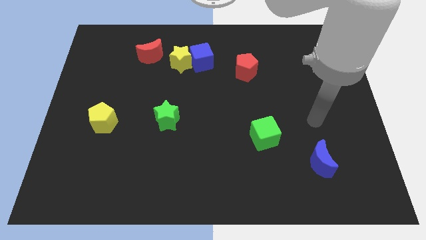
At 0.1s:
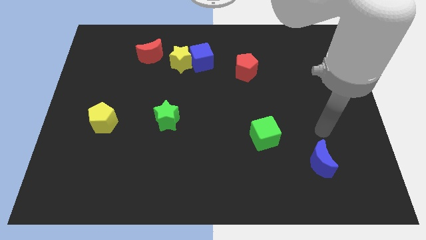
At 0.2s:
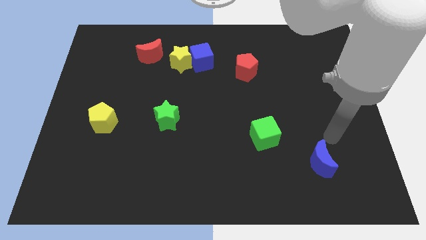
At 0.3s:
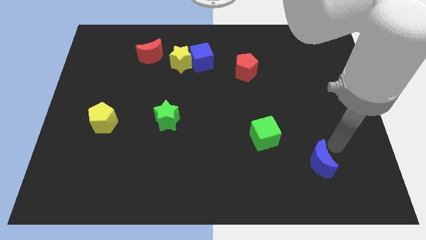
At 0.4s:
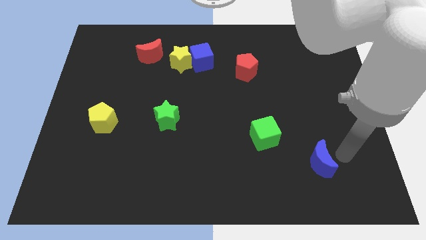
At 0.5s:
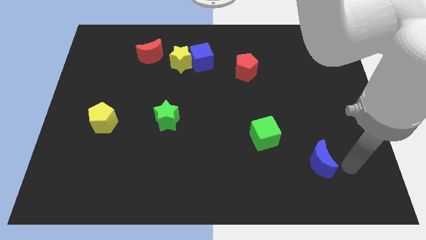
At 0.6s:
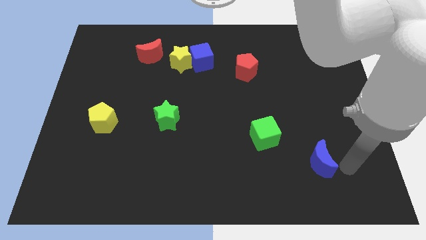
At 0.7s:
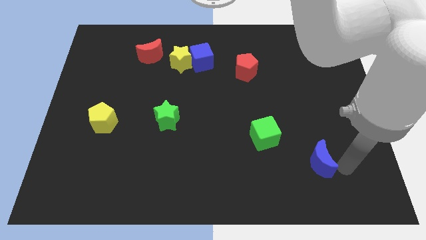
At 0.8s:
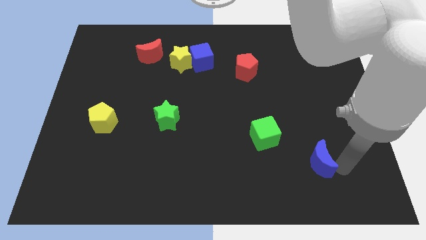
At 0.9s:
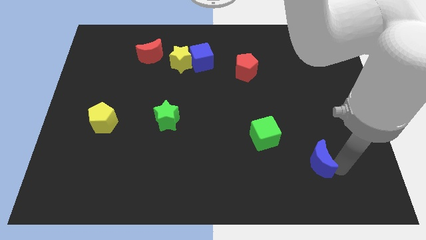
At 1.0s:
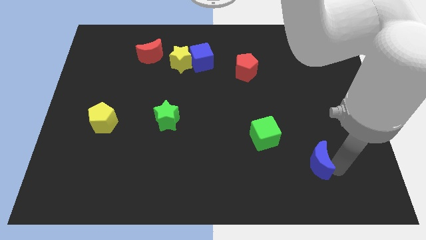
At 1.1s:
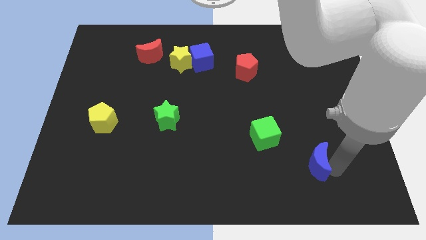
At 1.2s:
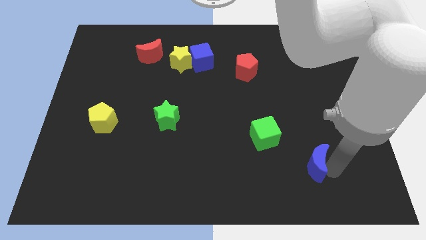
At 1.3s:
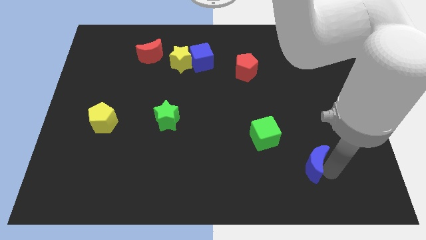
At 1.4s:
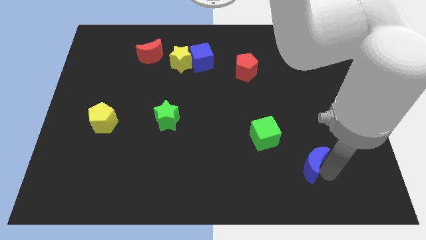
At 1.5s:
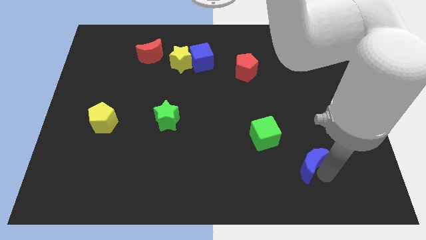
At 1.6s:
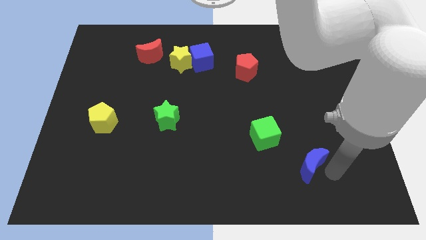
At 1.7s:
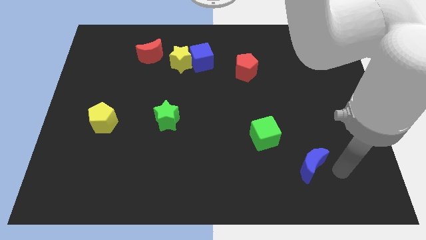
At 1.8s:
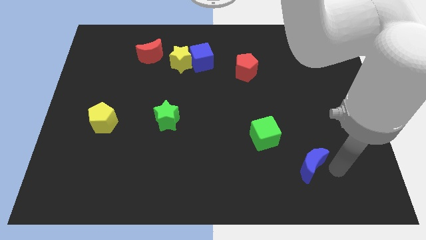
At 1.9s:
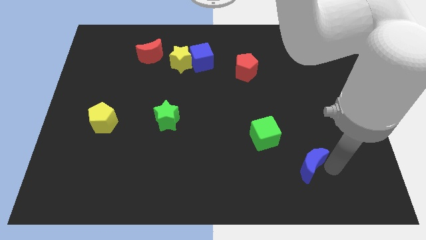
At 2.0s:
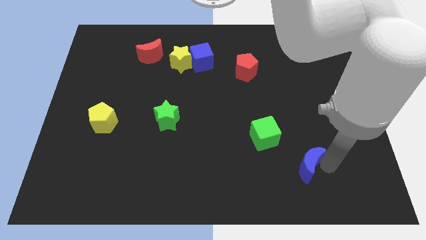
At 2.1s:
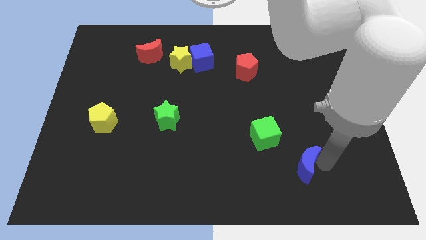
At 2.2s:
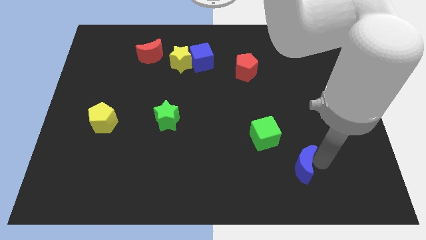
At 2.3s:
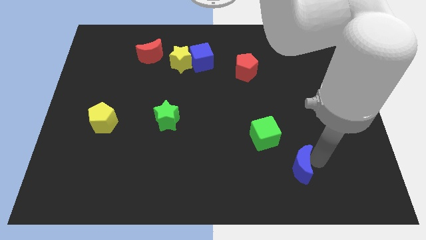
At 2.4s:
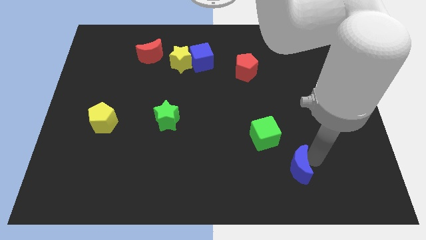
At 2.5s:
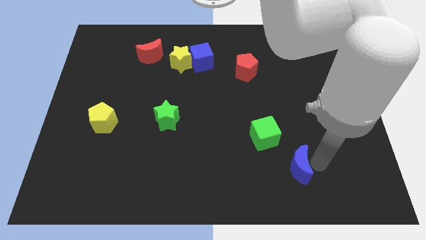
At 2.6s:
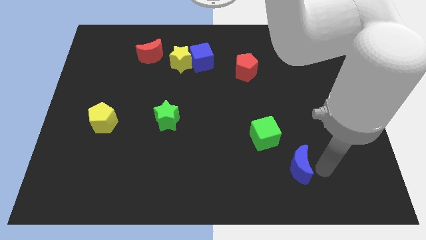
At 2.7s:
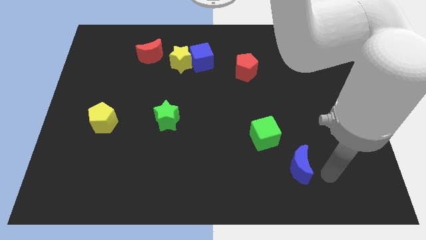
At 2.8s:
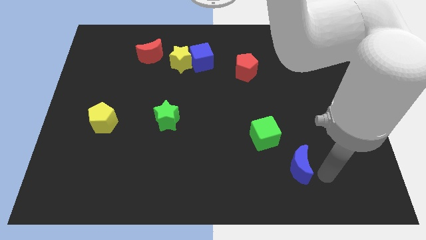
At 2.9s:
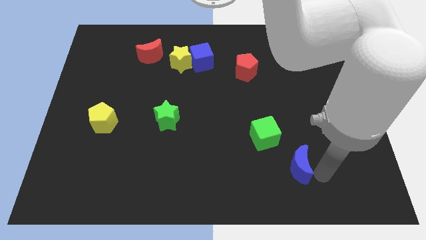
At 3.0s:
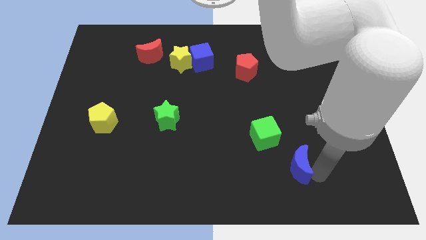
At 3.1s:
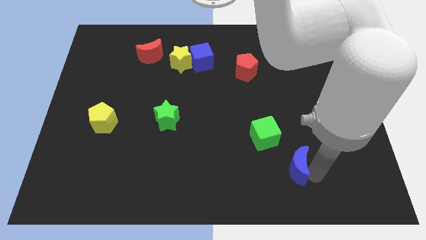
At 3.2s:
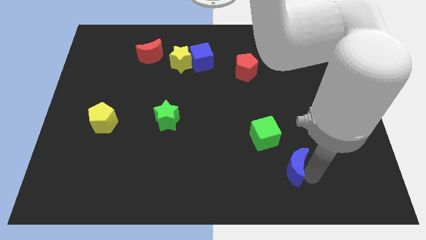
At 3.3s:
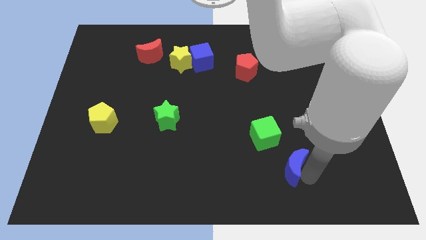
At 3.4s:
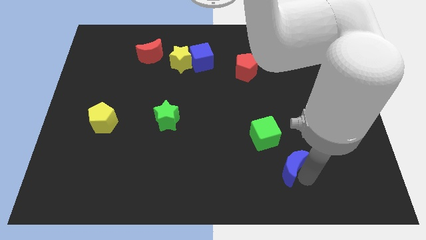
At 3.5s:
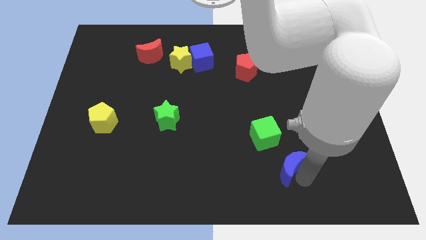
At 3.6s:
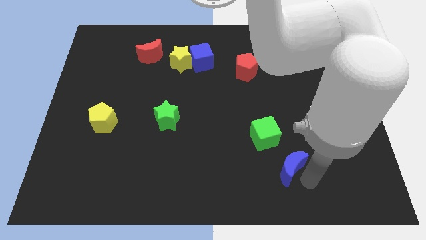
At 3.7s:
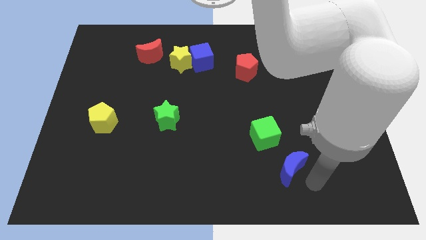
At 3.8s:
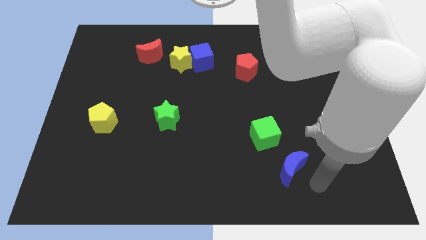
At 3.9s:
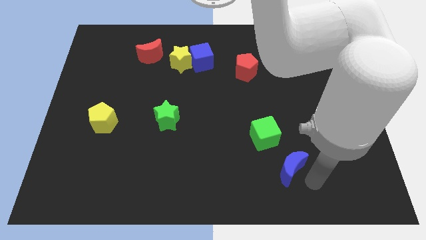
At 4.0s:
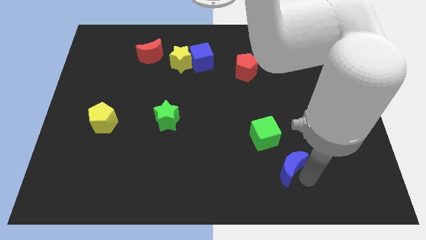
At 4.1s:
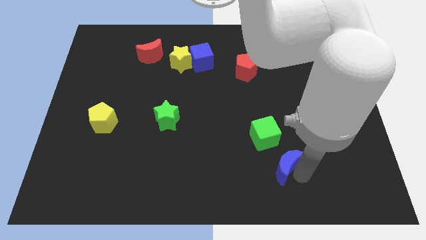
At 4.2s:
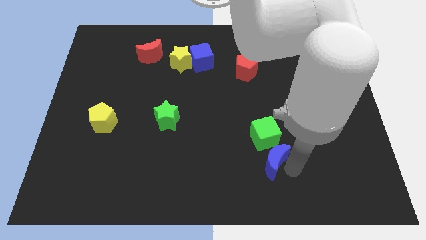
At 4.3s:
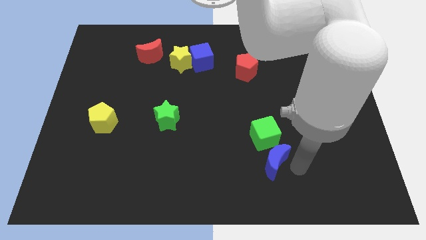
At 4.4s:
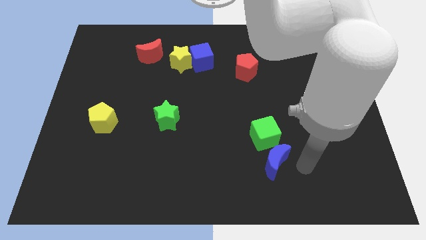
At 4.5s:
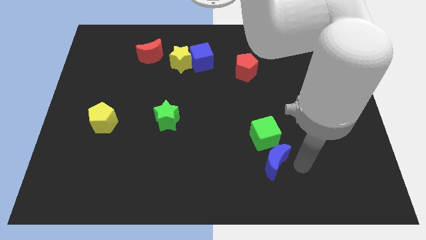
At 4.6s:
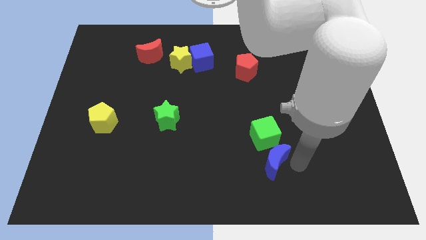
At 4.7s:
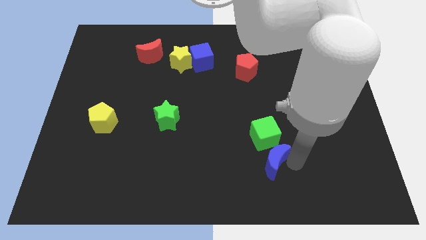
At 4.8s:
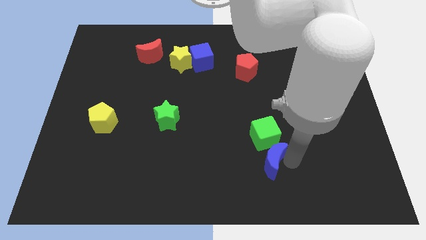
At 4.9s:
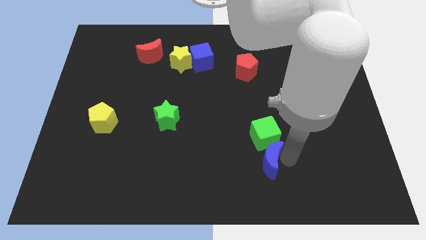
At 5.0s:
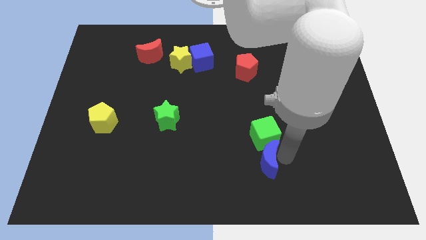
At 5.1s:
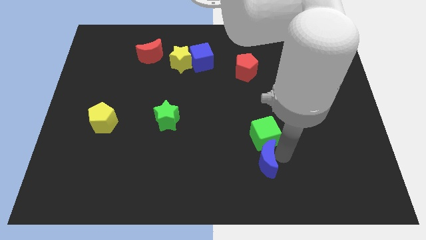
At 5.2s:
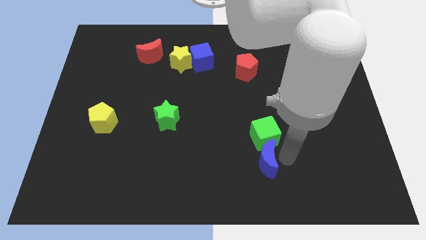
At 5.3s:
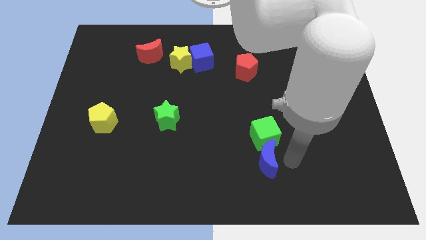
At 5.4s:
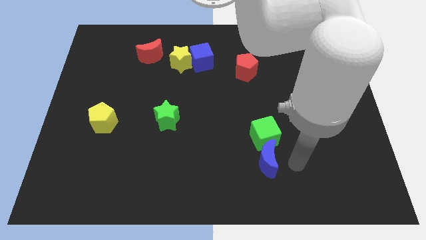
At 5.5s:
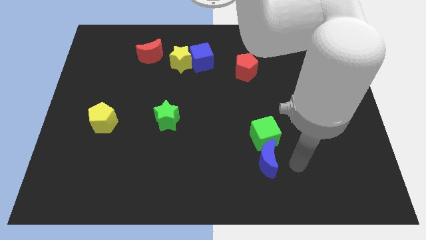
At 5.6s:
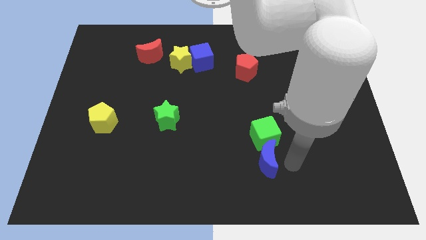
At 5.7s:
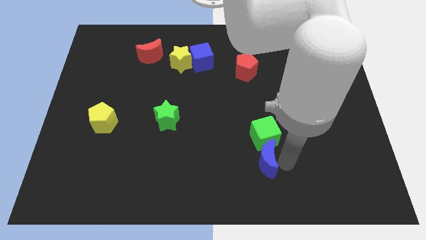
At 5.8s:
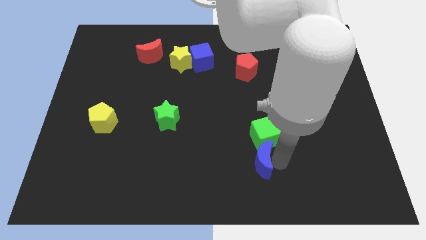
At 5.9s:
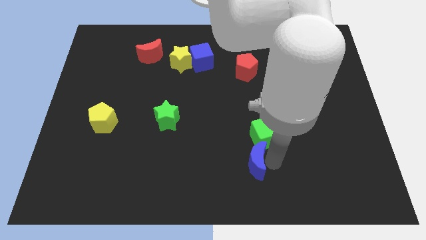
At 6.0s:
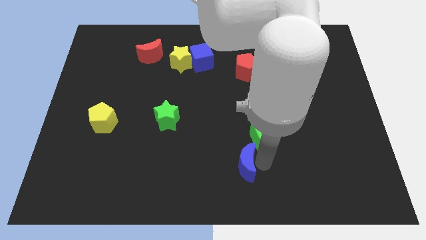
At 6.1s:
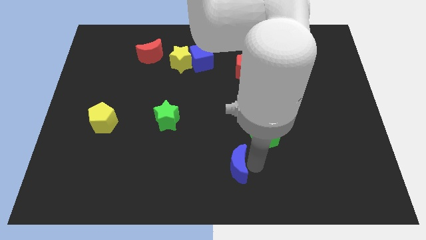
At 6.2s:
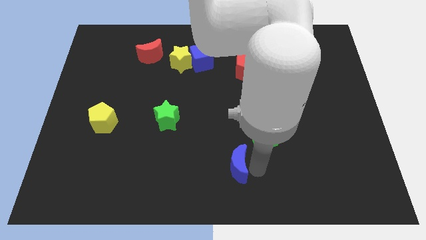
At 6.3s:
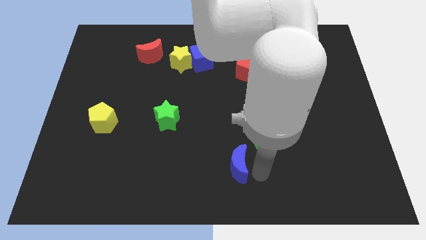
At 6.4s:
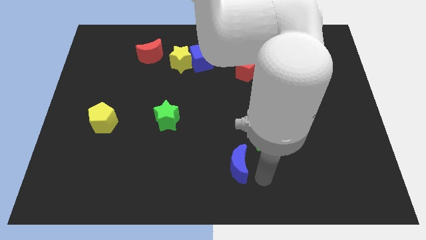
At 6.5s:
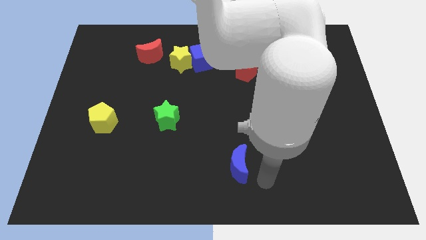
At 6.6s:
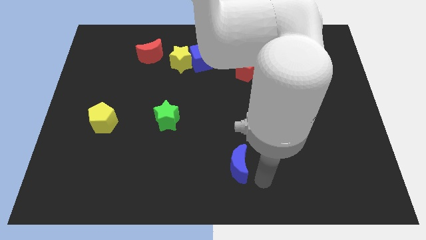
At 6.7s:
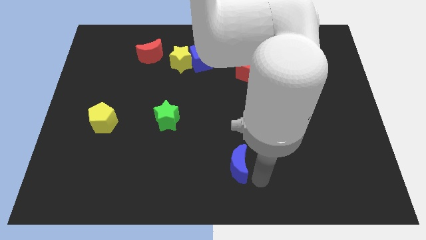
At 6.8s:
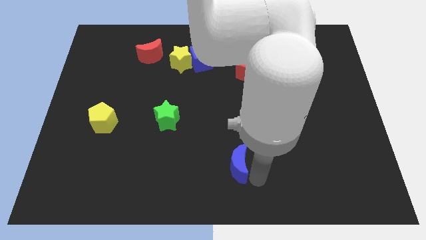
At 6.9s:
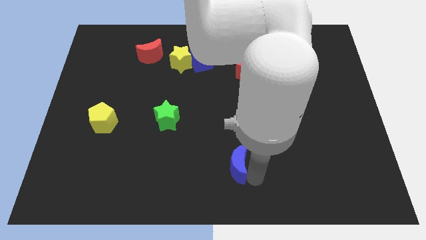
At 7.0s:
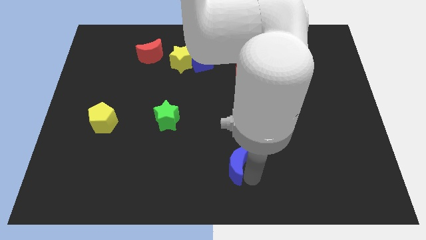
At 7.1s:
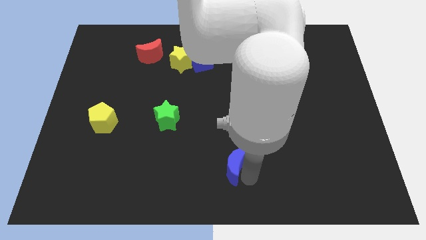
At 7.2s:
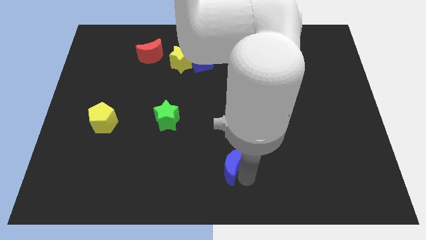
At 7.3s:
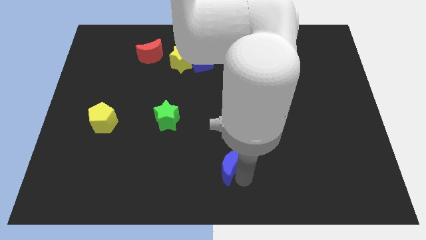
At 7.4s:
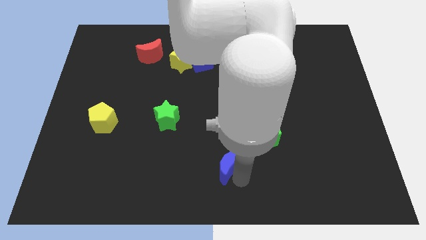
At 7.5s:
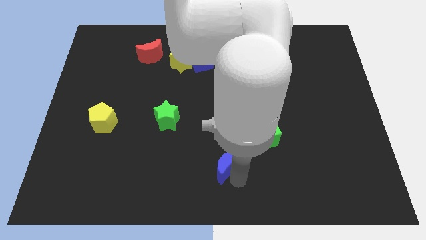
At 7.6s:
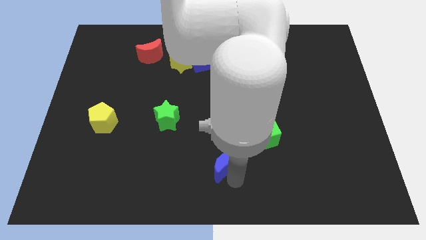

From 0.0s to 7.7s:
slide the blue moon left
